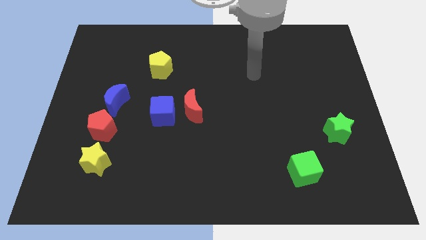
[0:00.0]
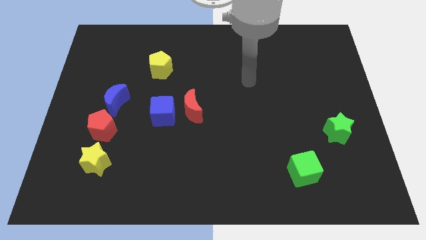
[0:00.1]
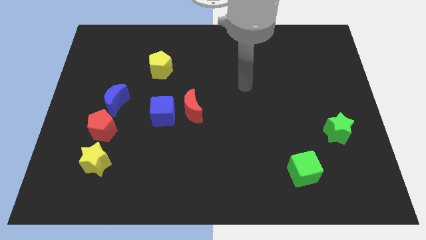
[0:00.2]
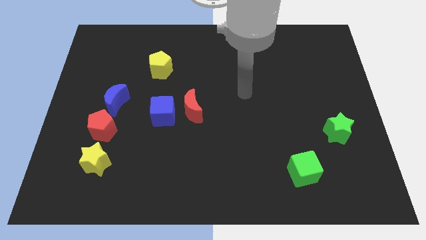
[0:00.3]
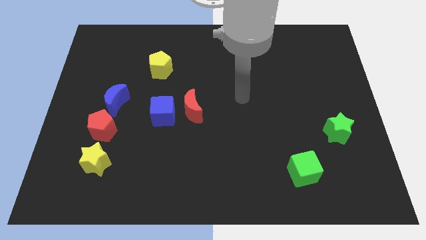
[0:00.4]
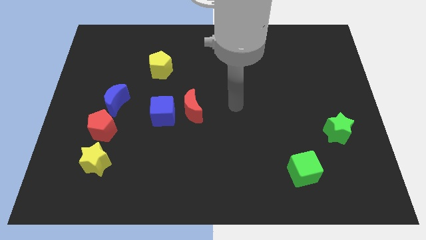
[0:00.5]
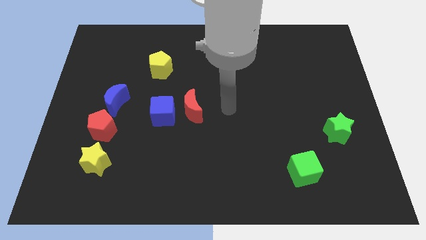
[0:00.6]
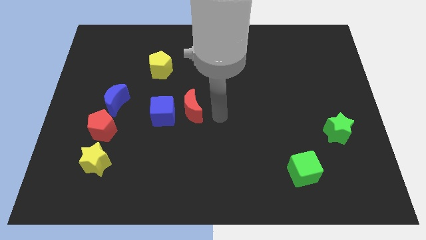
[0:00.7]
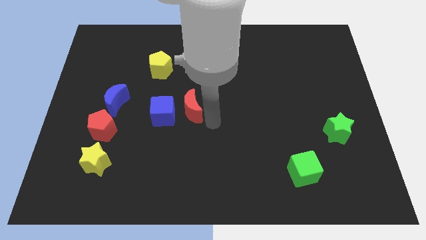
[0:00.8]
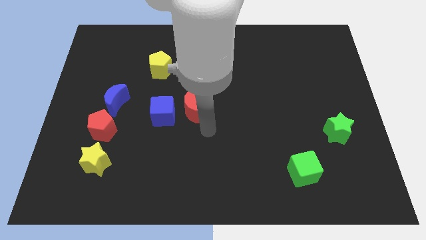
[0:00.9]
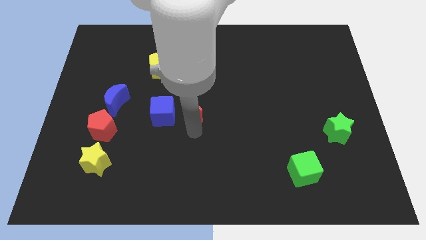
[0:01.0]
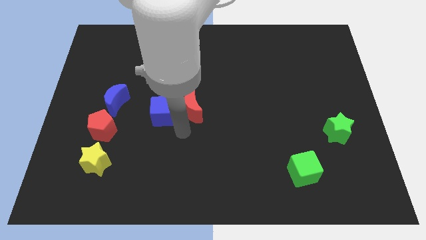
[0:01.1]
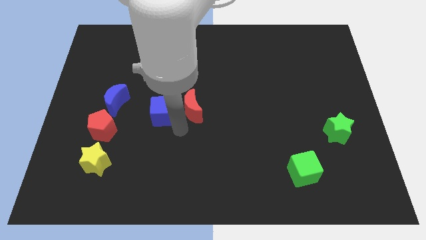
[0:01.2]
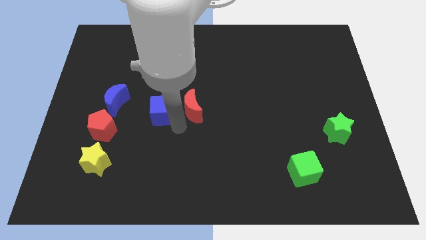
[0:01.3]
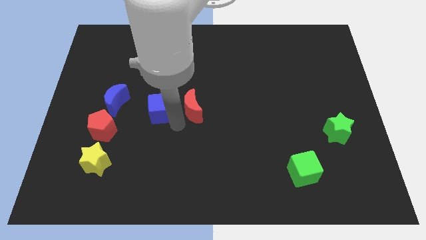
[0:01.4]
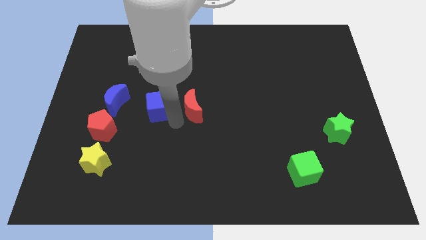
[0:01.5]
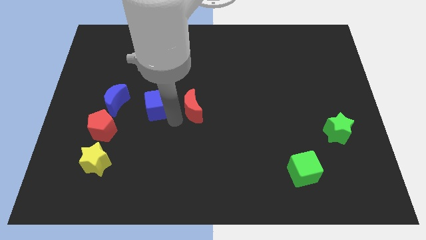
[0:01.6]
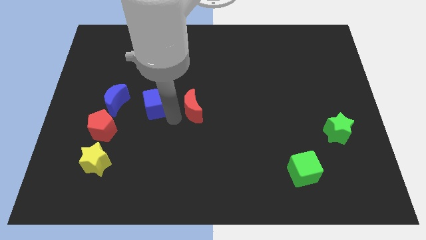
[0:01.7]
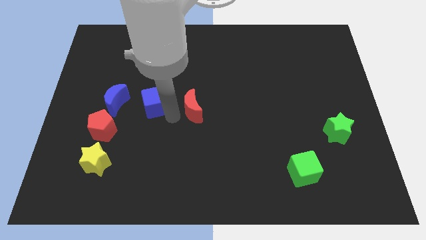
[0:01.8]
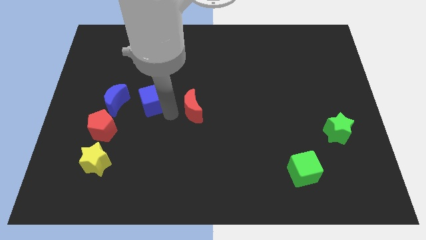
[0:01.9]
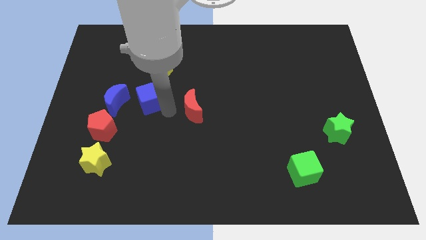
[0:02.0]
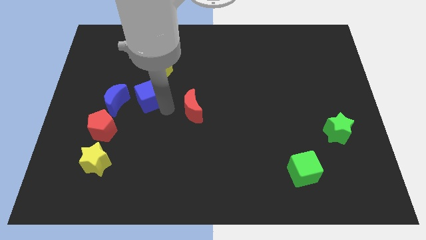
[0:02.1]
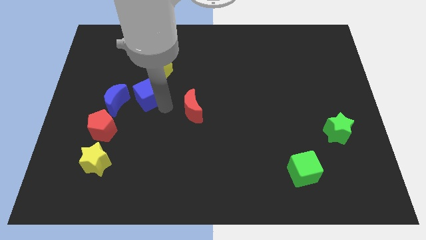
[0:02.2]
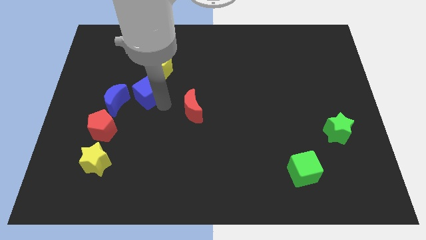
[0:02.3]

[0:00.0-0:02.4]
move the blue cube slightly upwards and then left

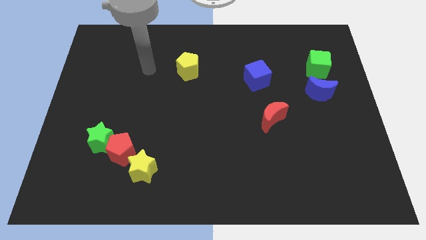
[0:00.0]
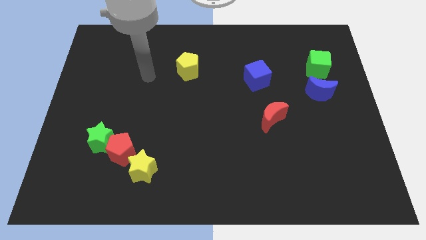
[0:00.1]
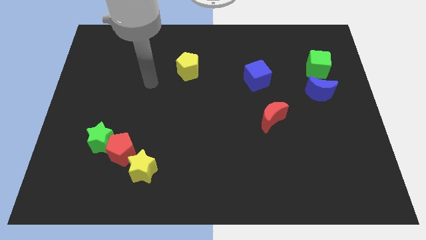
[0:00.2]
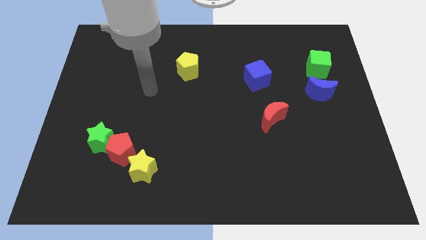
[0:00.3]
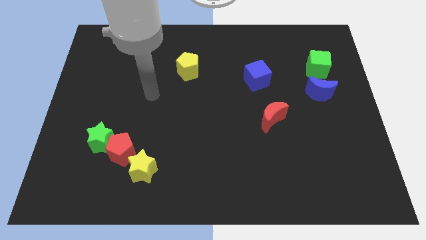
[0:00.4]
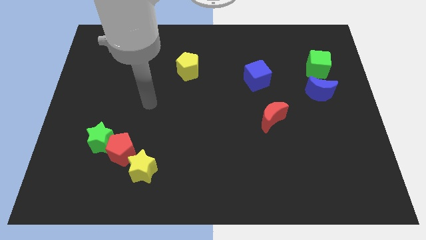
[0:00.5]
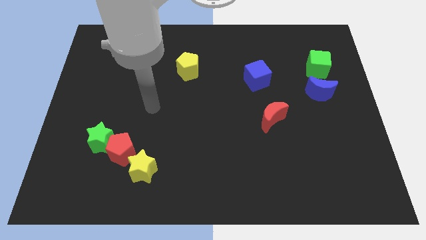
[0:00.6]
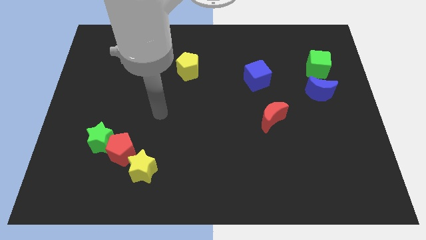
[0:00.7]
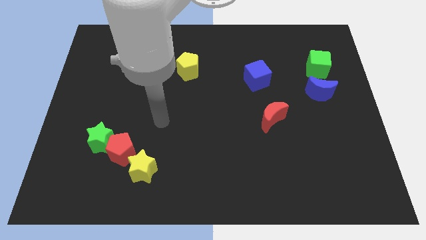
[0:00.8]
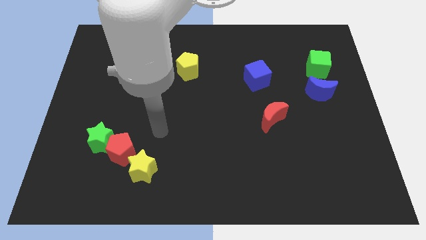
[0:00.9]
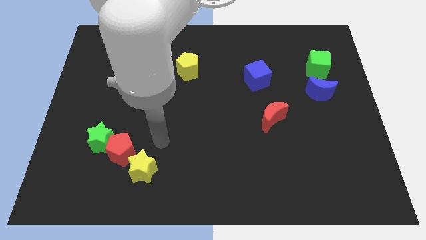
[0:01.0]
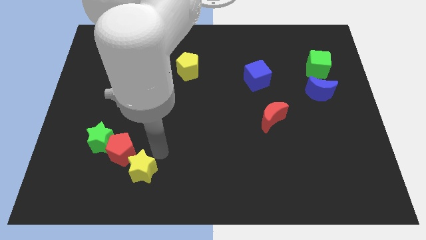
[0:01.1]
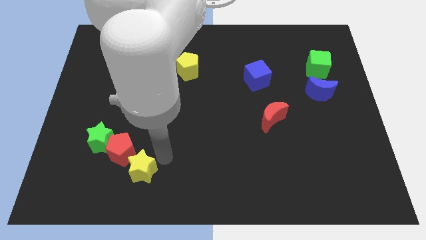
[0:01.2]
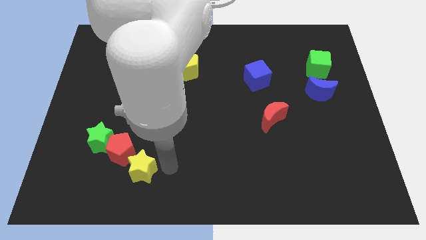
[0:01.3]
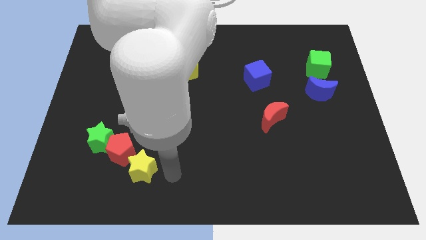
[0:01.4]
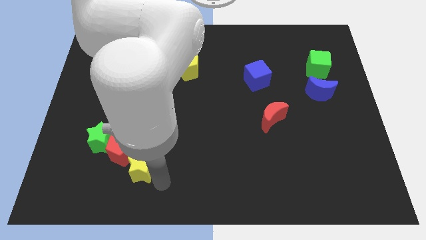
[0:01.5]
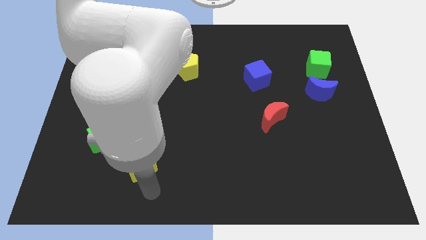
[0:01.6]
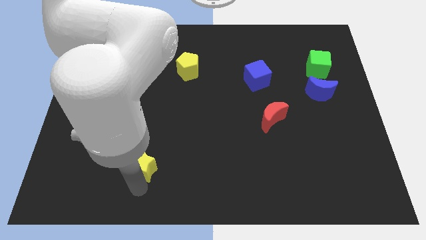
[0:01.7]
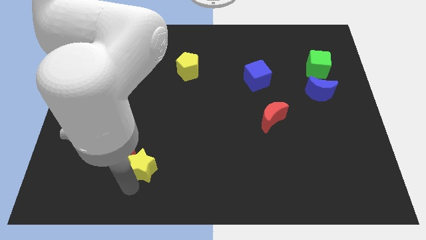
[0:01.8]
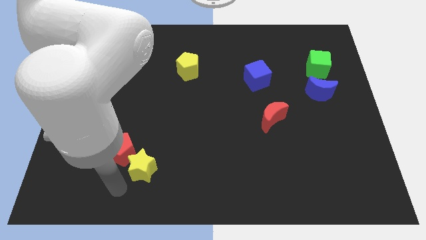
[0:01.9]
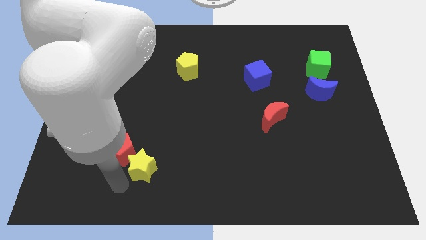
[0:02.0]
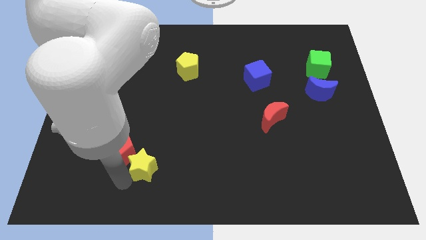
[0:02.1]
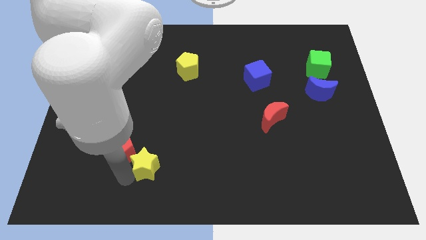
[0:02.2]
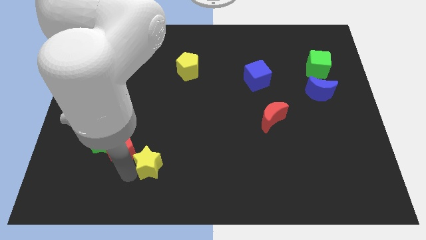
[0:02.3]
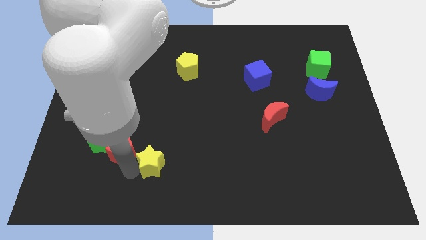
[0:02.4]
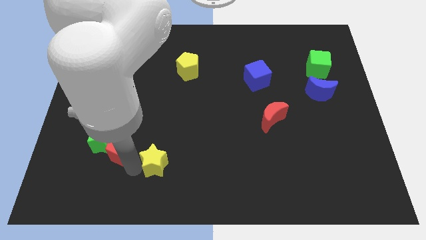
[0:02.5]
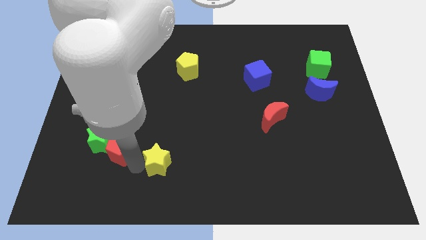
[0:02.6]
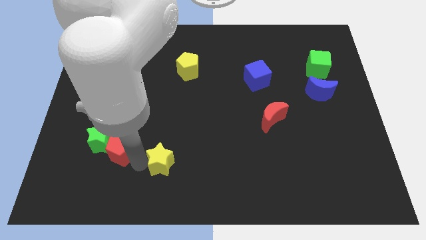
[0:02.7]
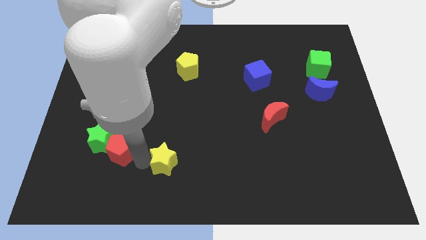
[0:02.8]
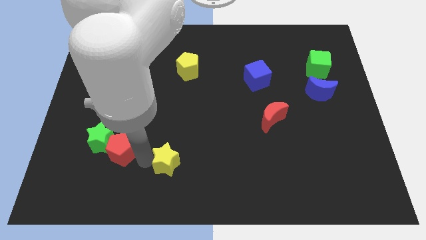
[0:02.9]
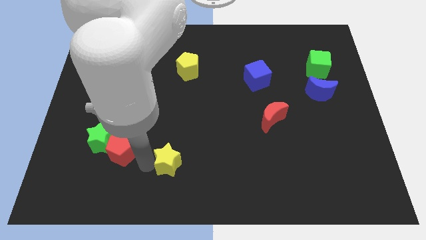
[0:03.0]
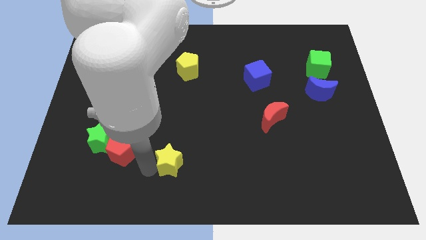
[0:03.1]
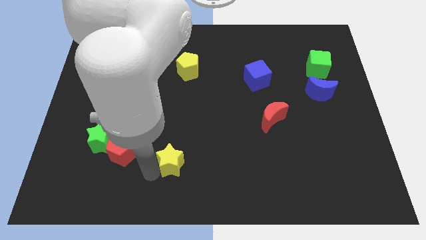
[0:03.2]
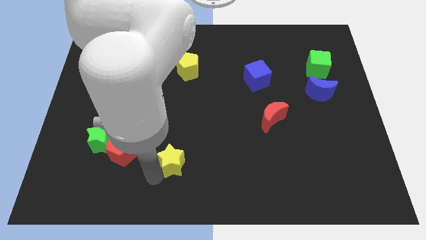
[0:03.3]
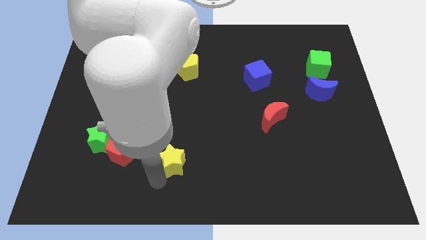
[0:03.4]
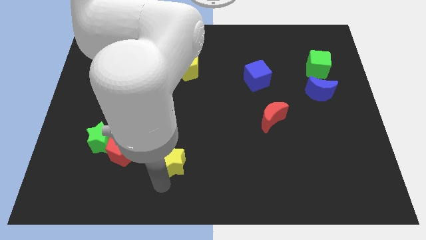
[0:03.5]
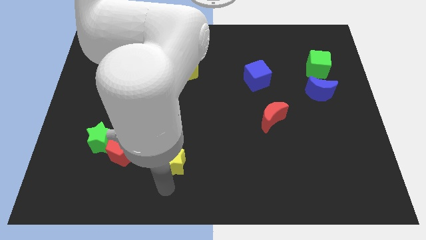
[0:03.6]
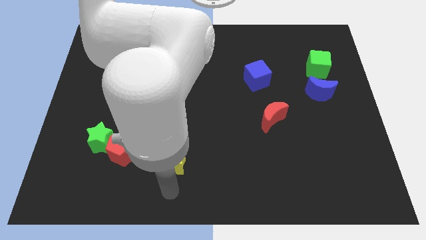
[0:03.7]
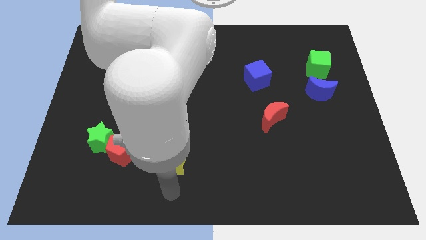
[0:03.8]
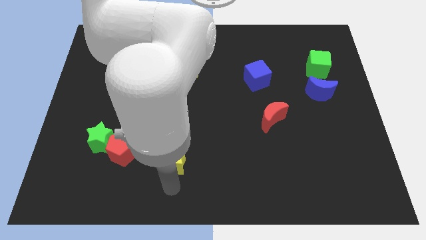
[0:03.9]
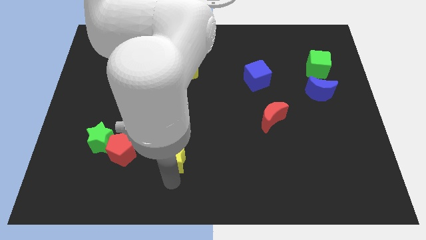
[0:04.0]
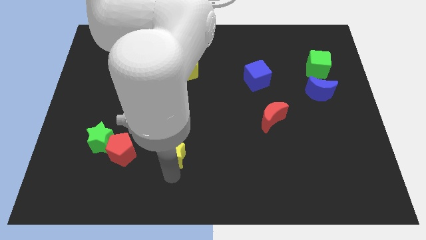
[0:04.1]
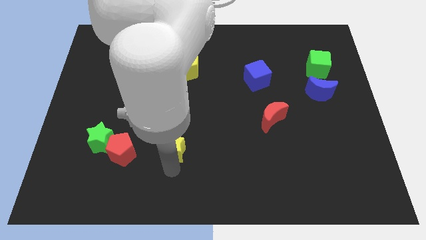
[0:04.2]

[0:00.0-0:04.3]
push the yellow star a bit upwards and to the right diagonally

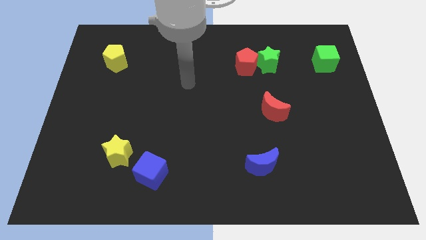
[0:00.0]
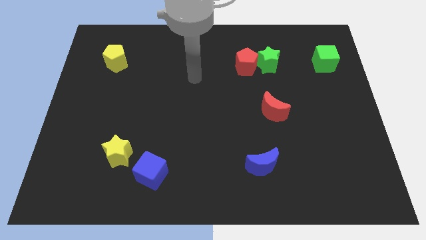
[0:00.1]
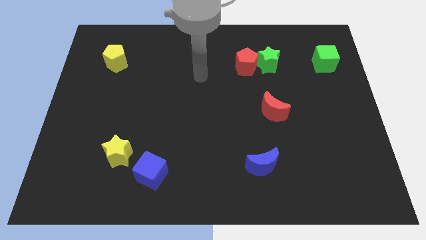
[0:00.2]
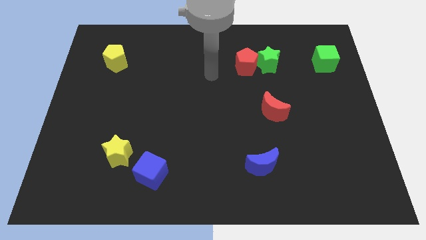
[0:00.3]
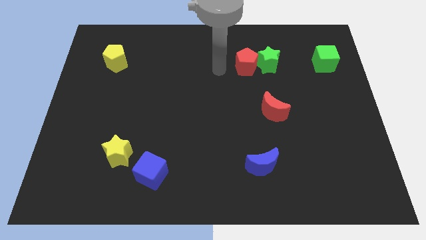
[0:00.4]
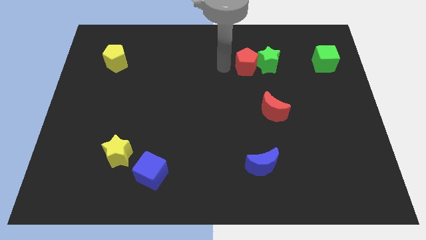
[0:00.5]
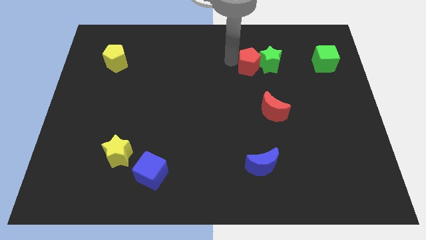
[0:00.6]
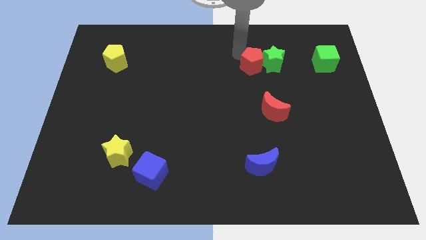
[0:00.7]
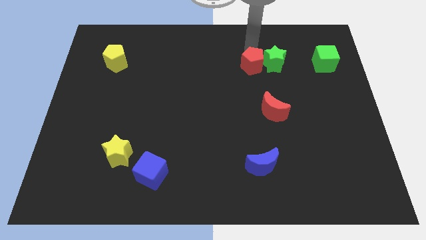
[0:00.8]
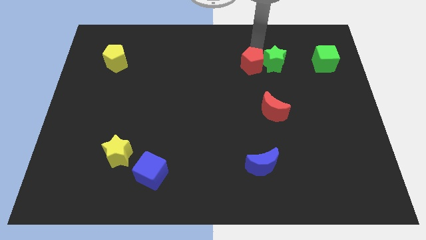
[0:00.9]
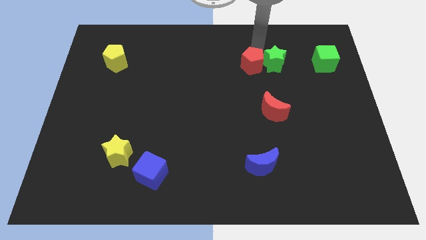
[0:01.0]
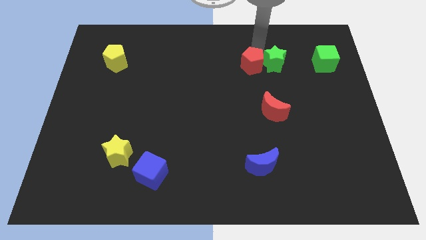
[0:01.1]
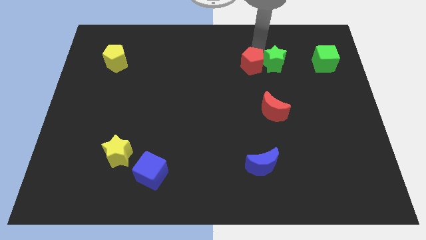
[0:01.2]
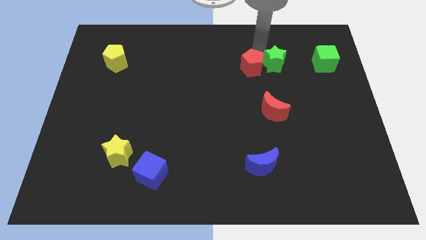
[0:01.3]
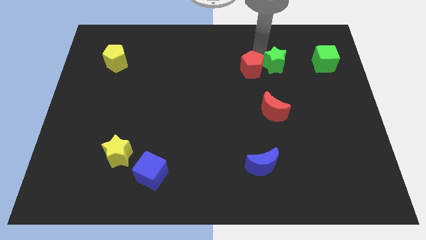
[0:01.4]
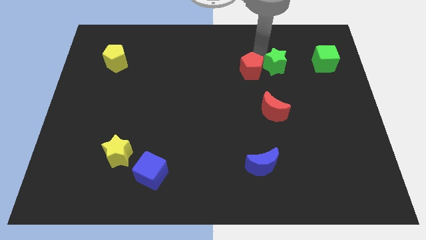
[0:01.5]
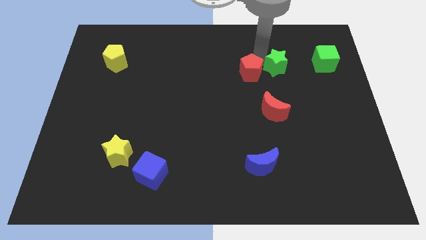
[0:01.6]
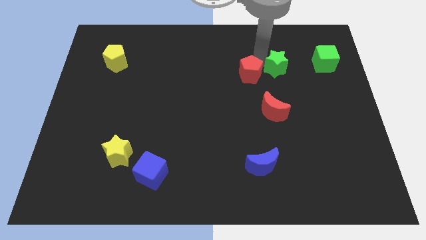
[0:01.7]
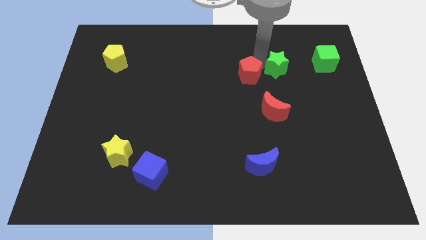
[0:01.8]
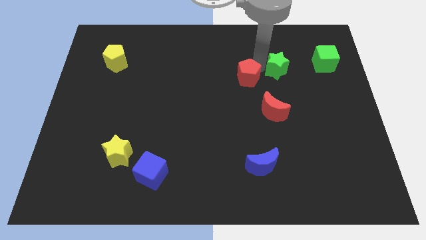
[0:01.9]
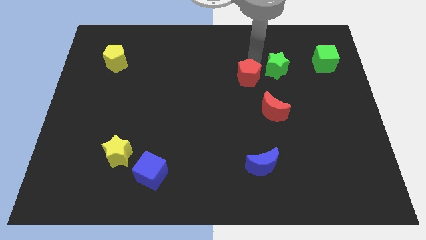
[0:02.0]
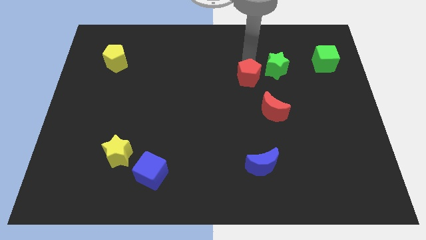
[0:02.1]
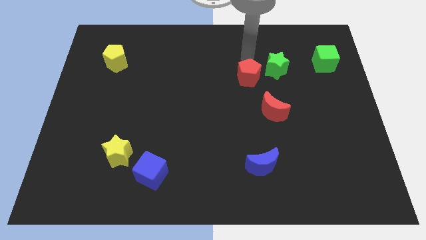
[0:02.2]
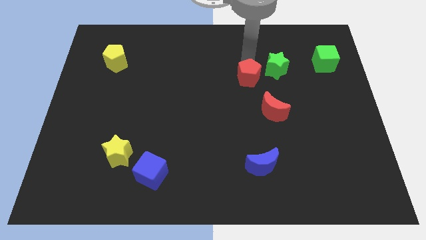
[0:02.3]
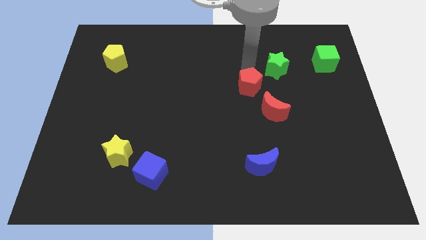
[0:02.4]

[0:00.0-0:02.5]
push the red pentagon down a little
